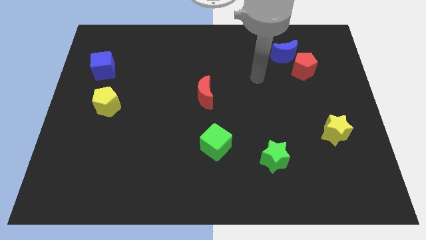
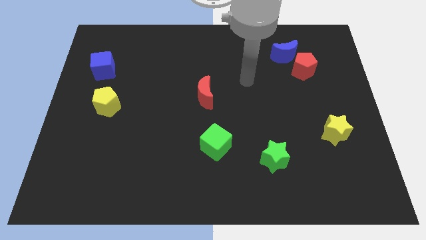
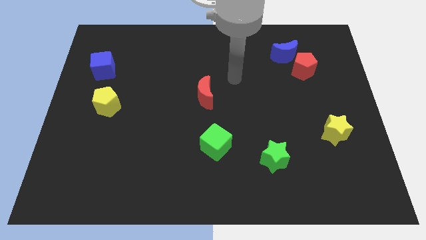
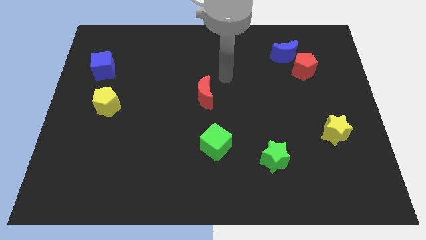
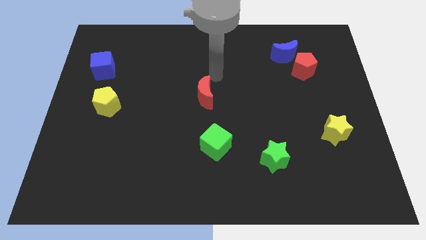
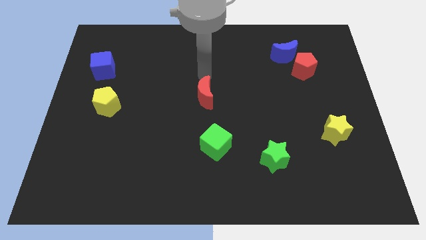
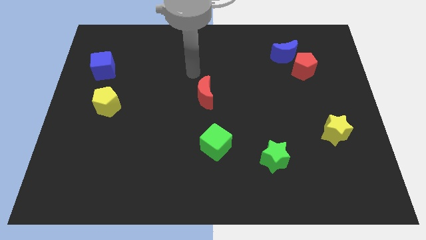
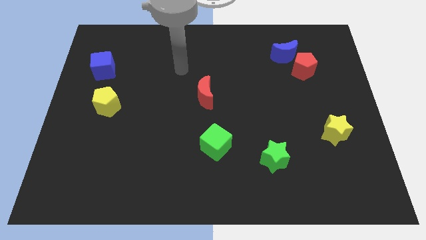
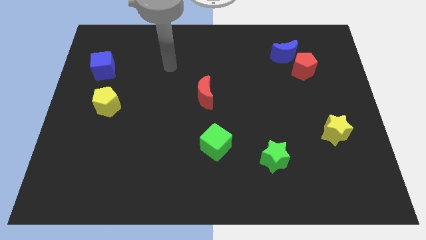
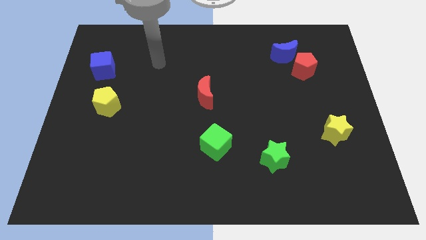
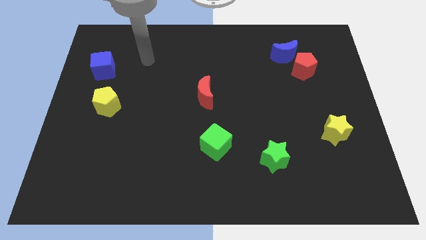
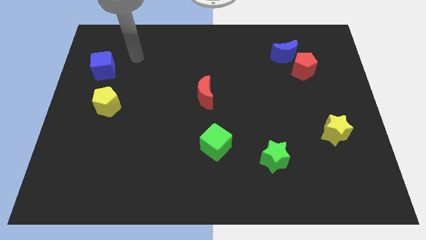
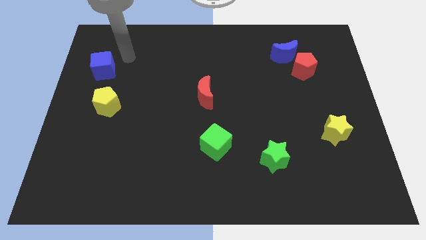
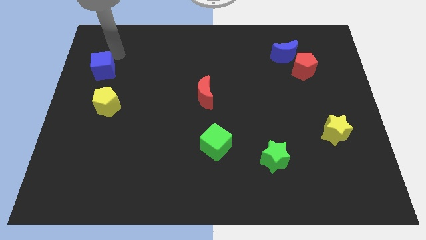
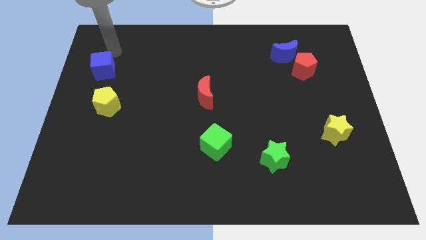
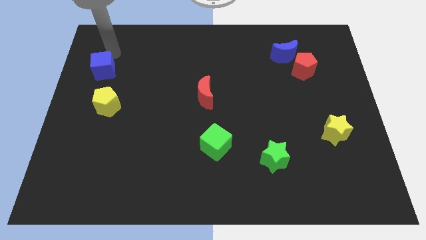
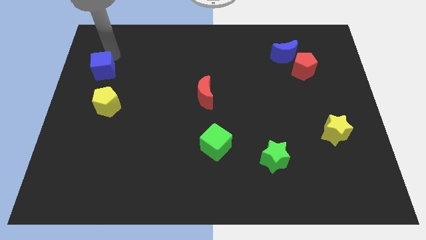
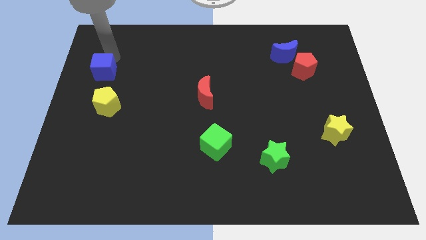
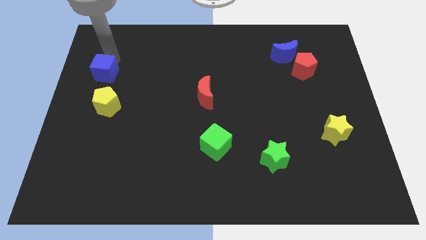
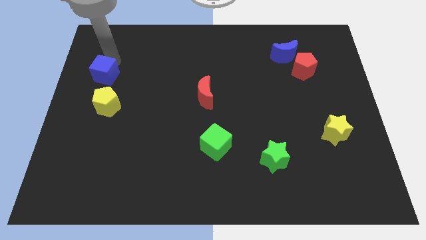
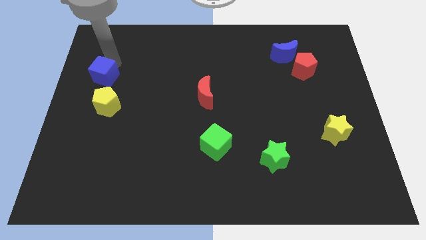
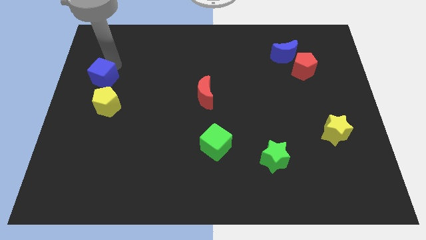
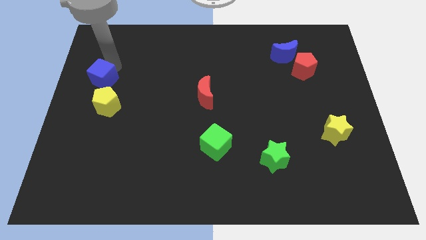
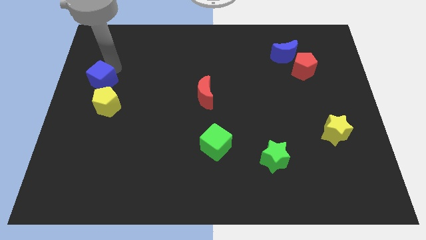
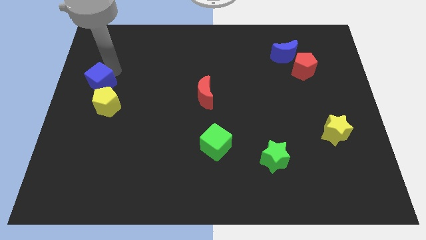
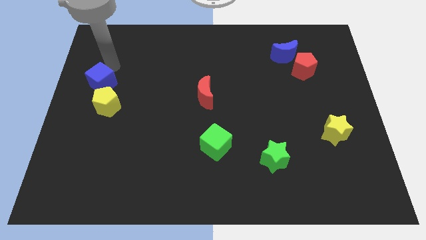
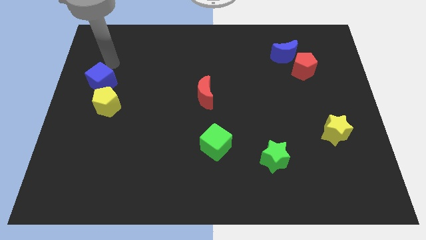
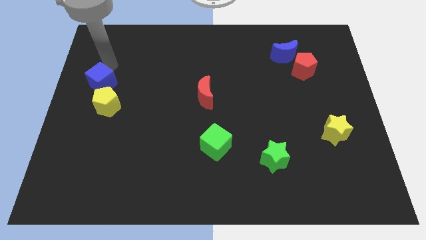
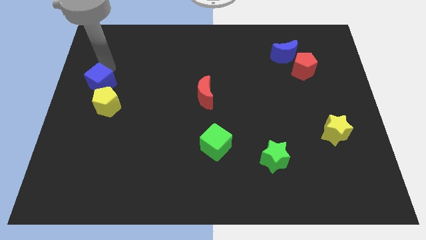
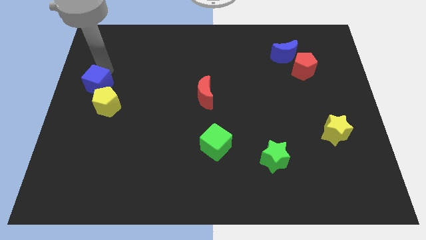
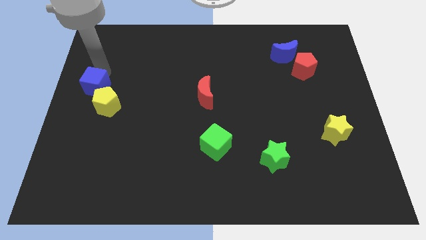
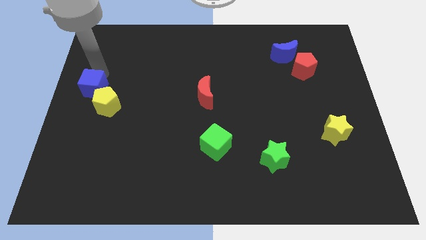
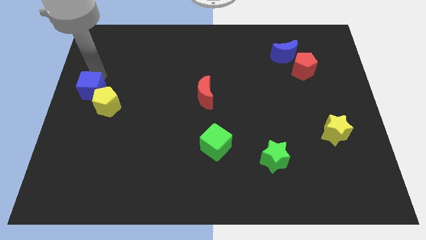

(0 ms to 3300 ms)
move the blue cube down a little

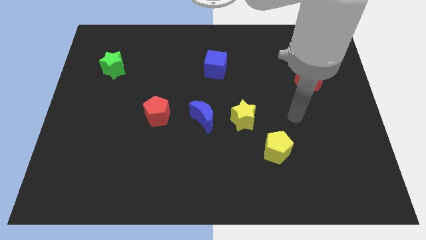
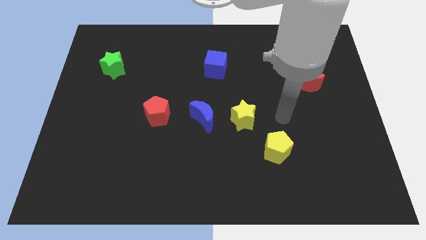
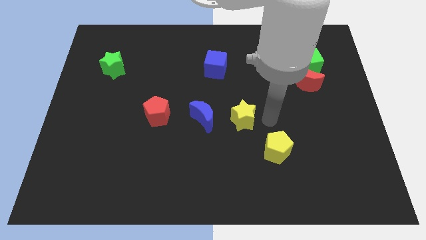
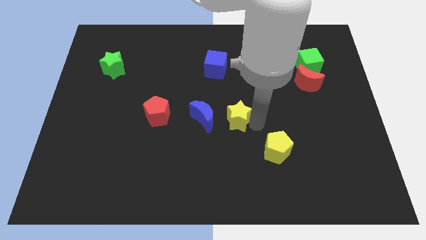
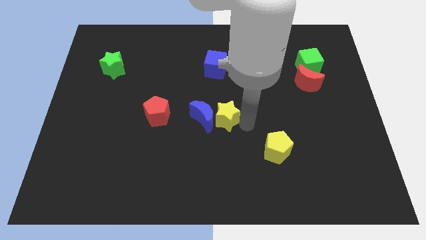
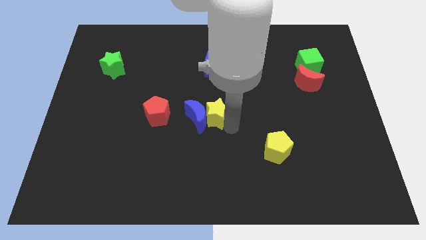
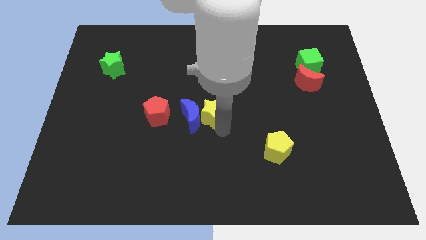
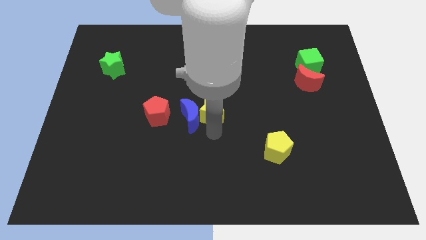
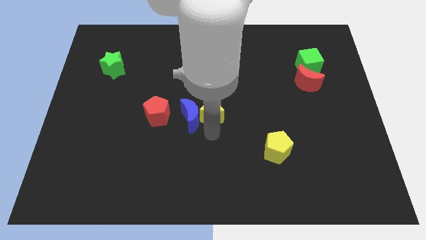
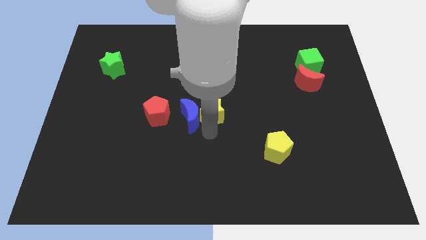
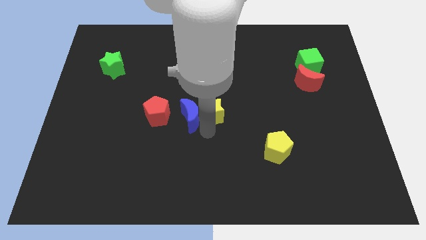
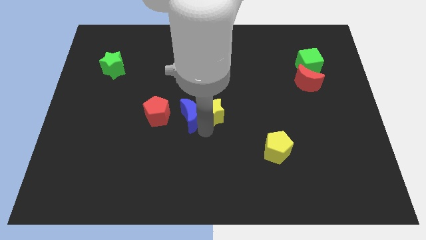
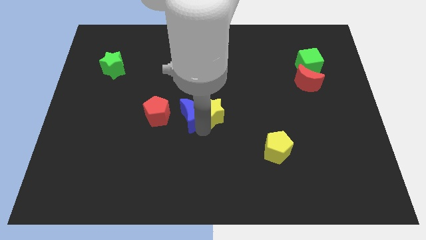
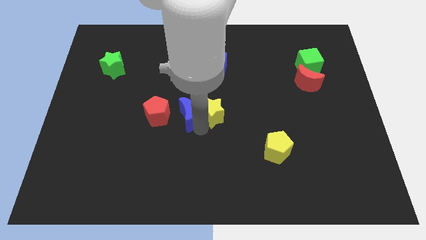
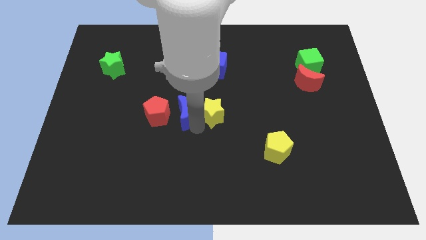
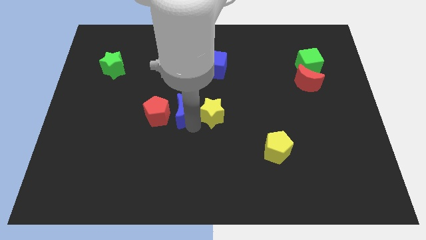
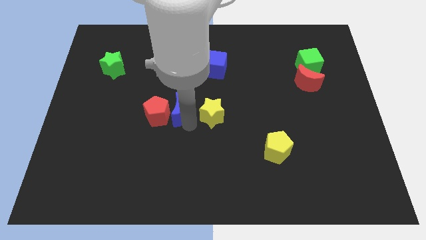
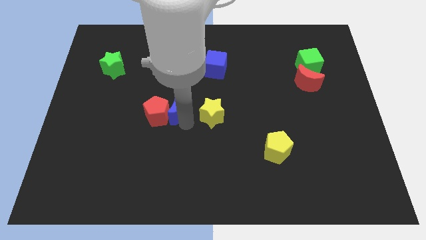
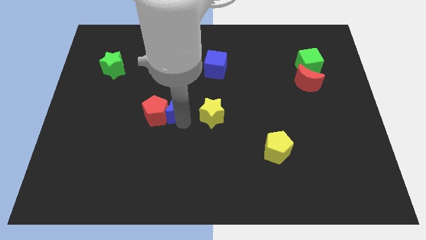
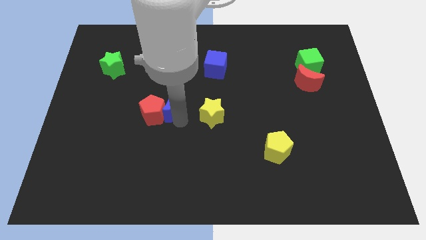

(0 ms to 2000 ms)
slightly push the blue moon to the left

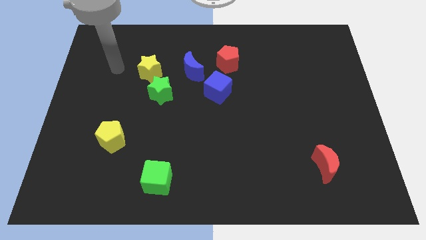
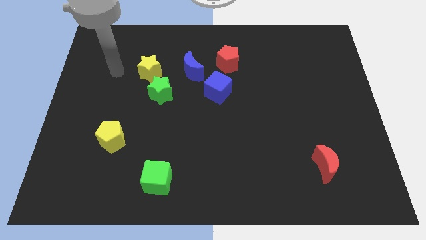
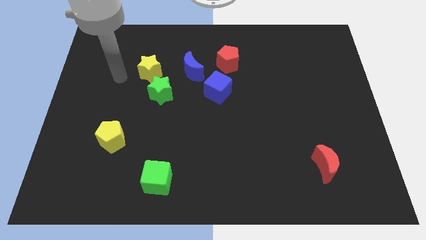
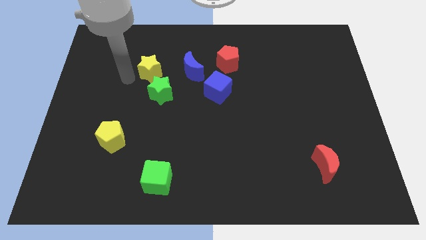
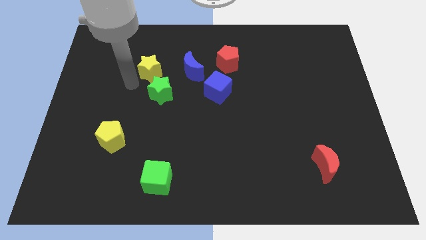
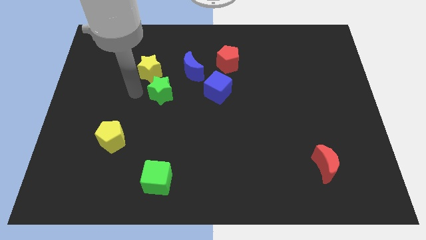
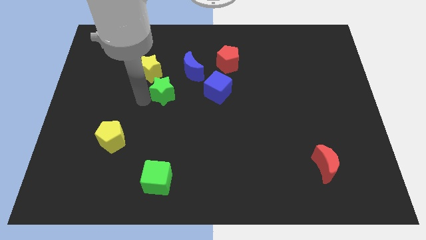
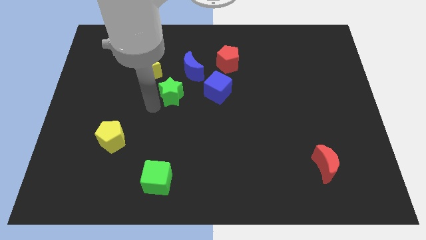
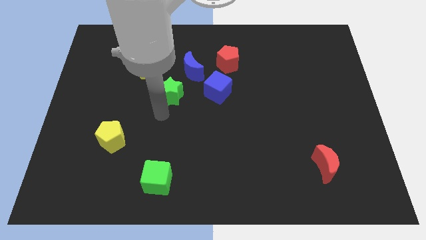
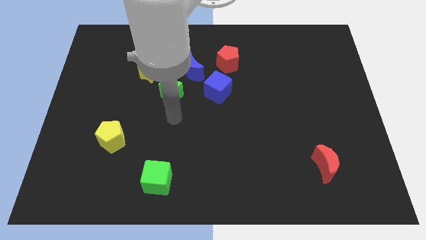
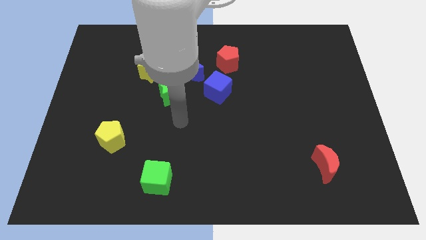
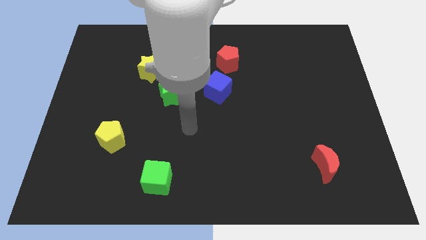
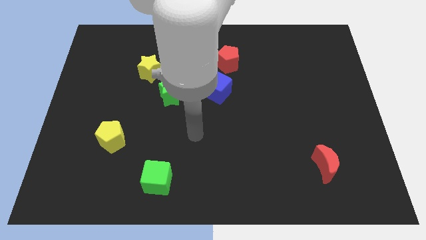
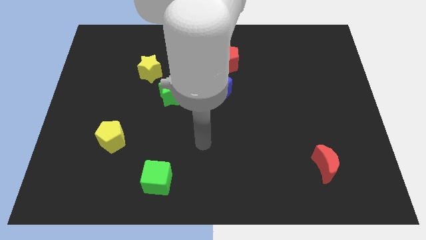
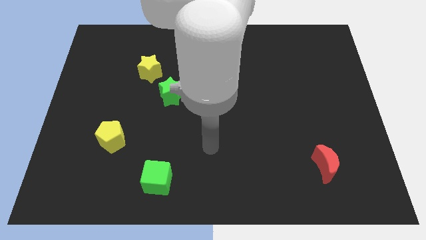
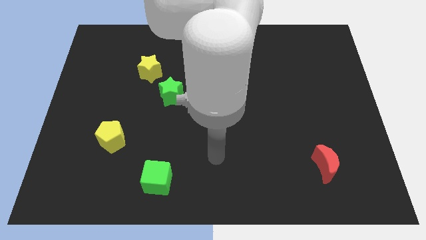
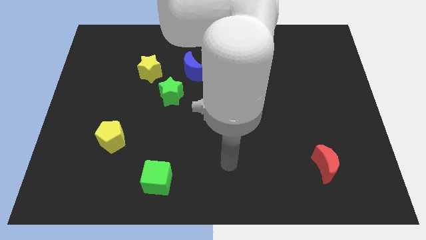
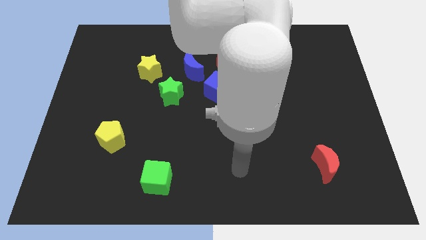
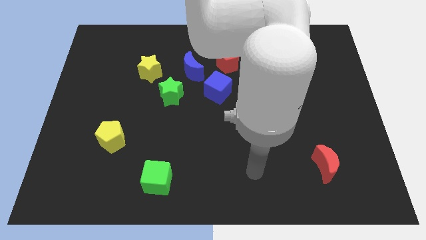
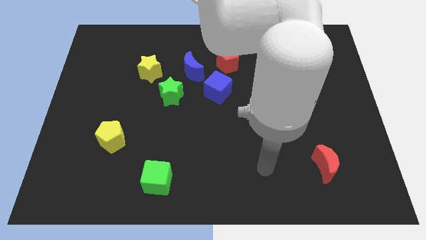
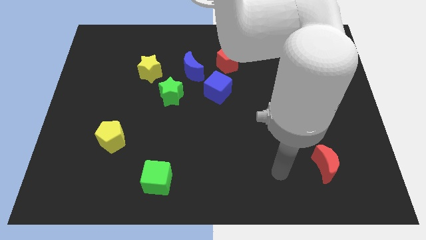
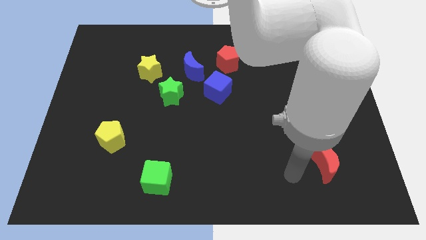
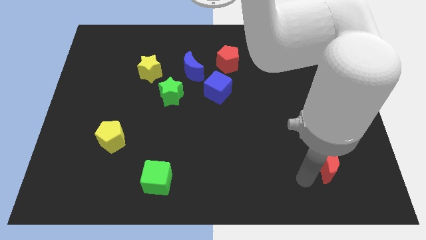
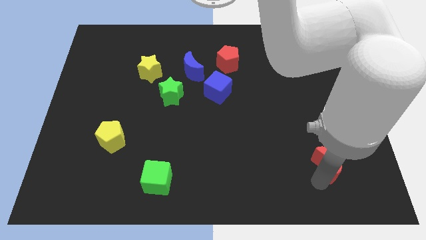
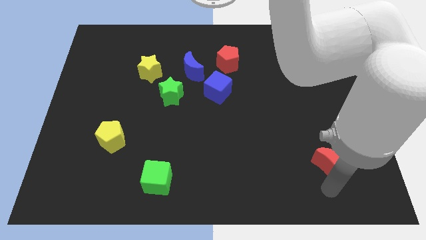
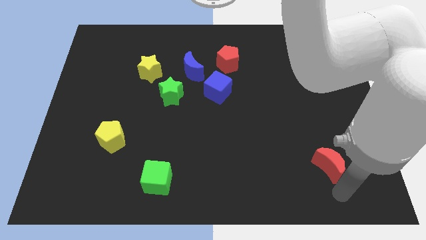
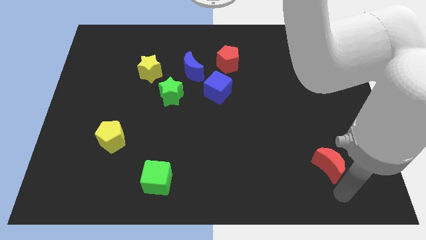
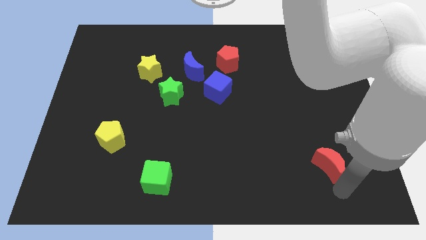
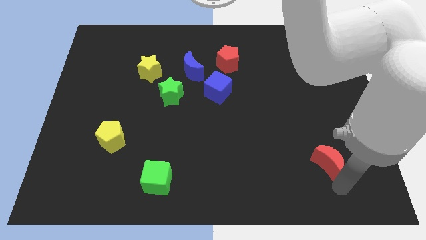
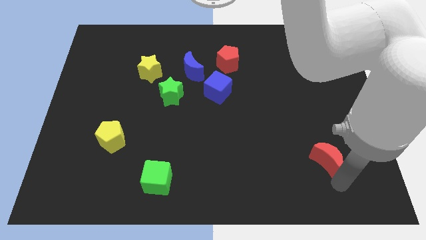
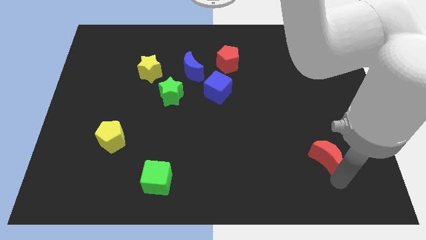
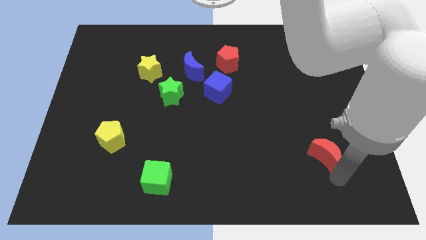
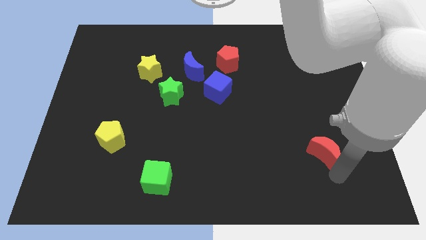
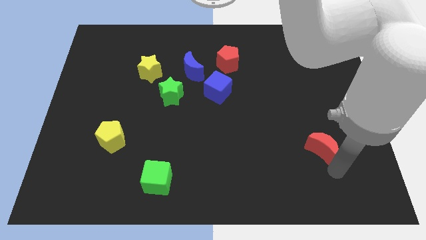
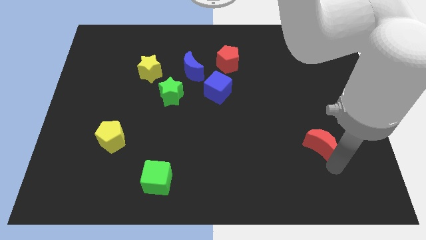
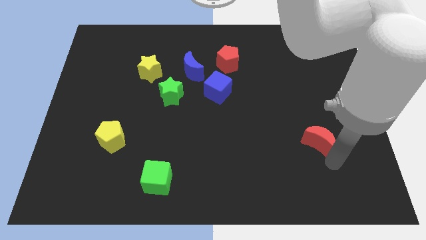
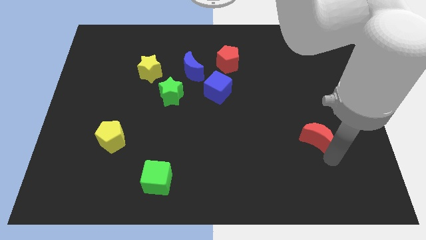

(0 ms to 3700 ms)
slide the red moon slightly upwards
